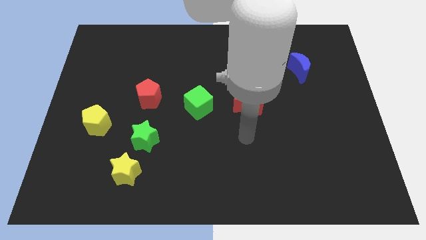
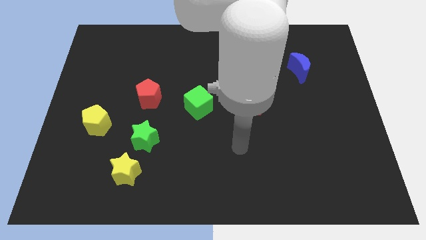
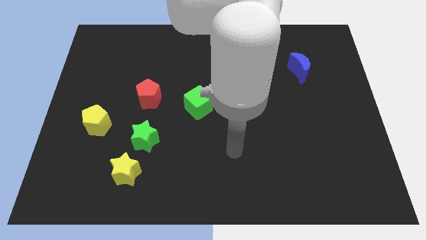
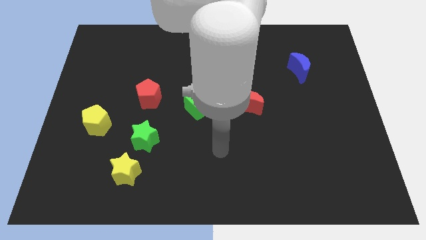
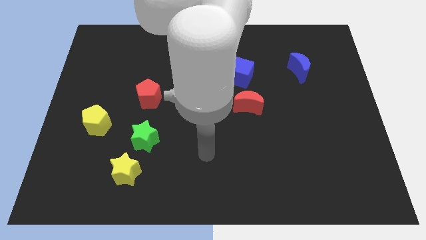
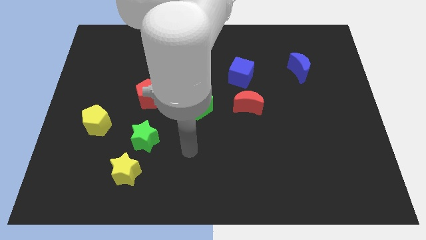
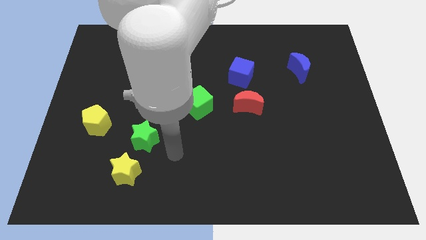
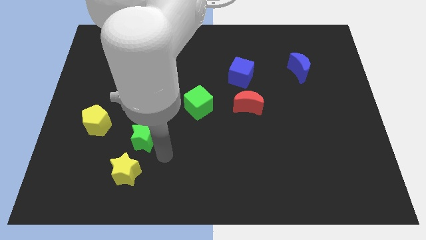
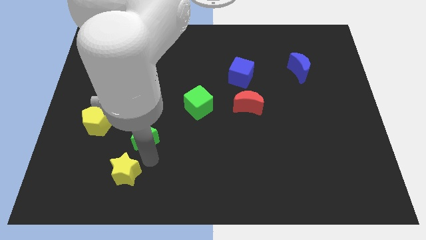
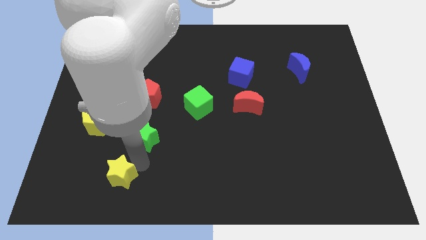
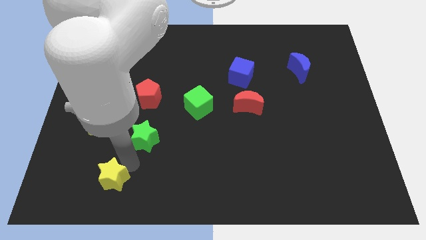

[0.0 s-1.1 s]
separate the green star from the yellow star

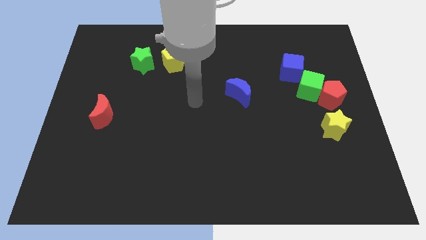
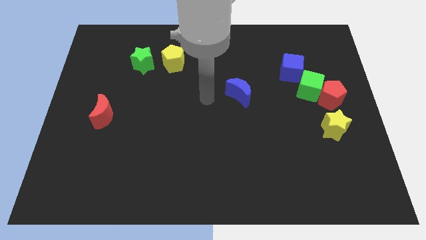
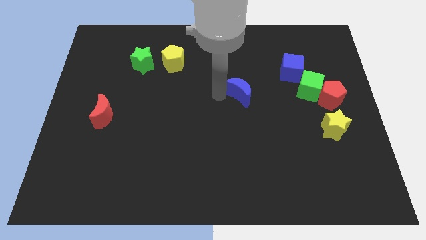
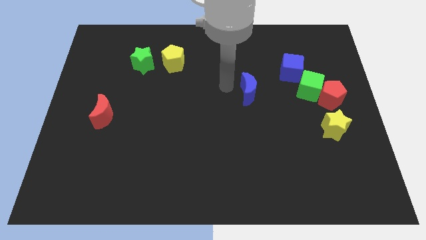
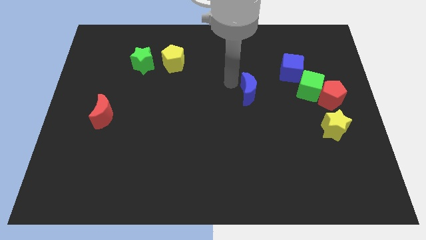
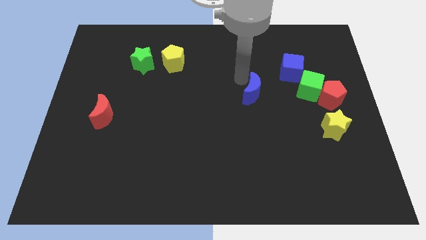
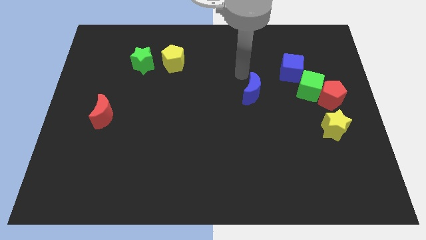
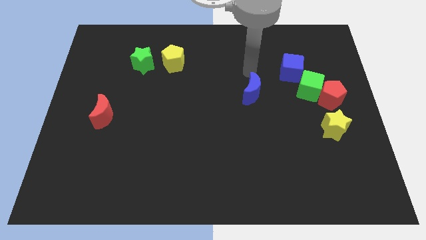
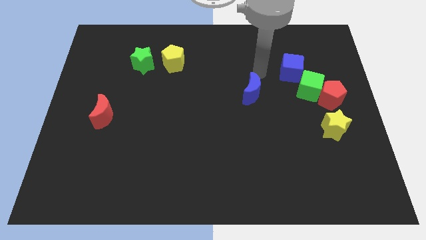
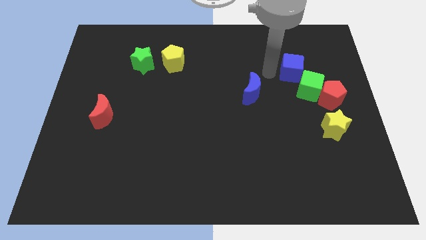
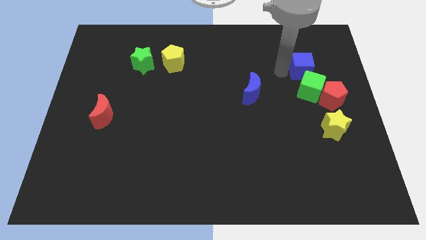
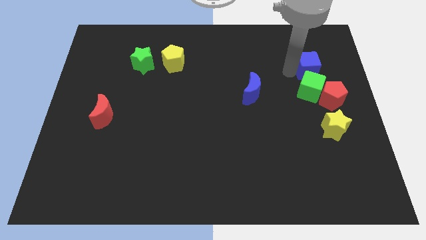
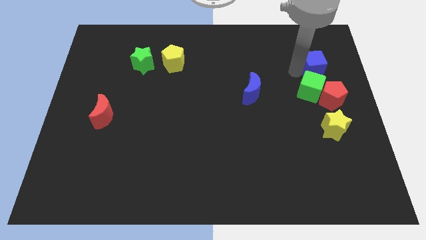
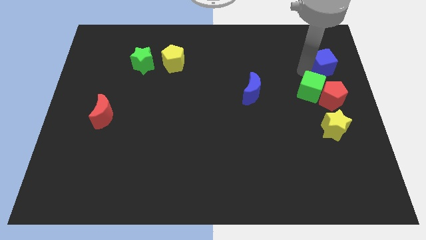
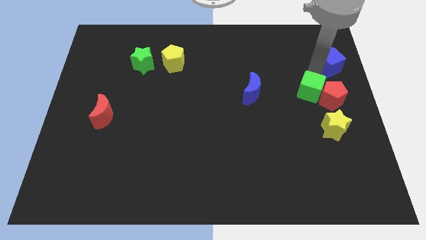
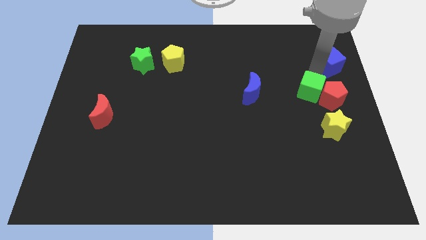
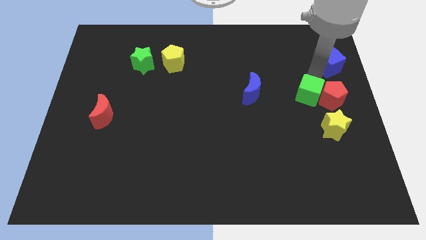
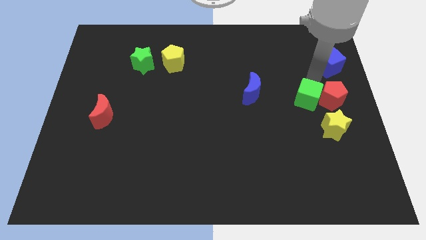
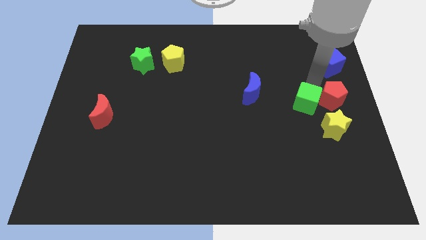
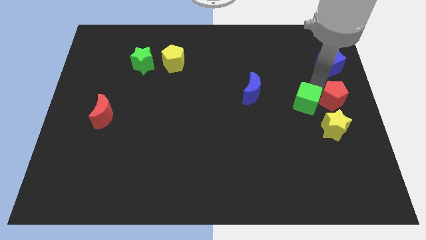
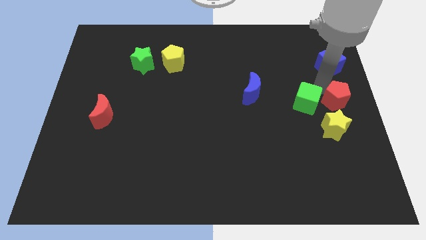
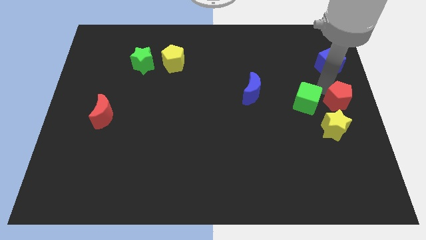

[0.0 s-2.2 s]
move the green cube away from the red pentagon and blue cube

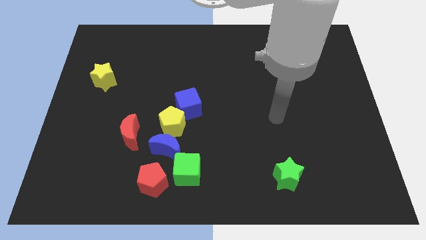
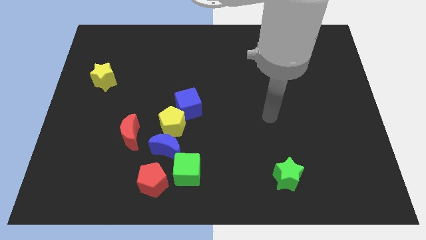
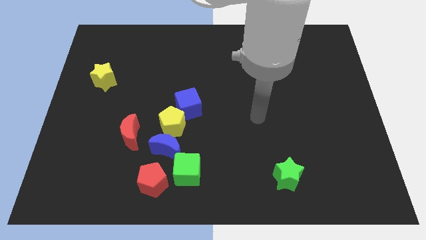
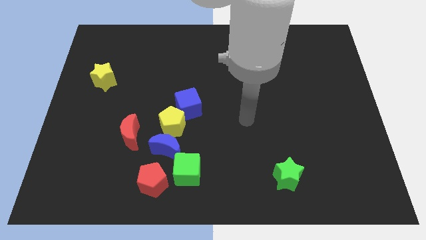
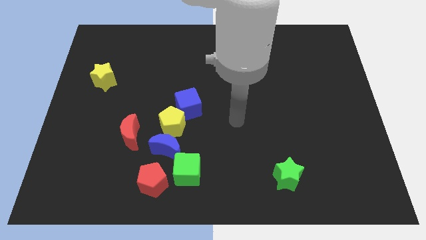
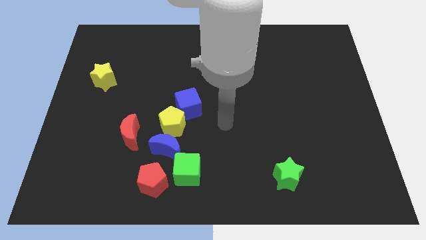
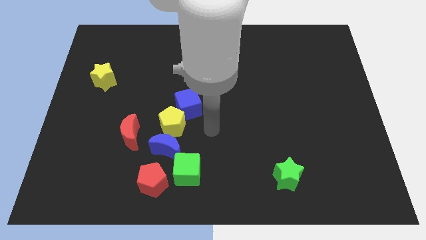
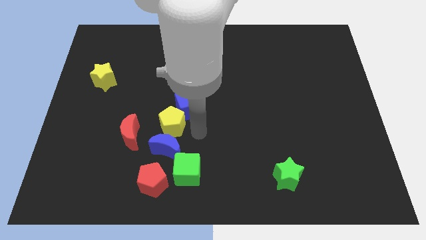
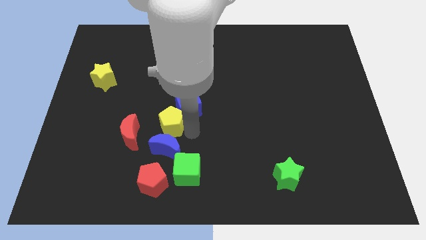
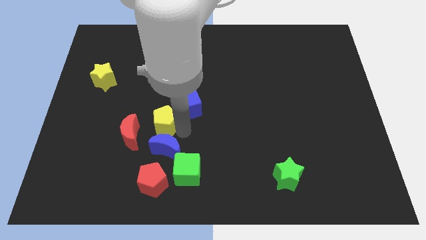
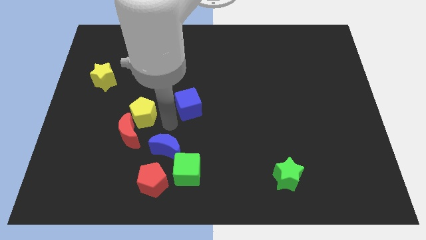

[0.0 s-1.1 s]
separate the blue cube from the yellow pentagon

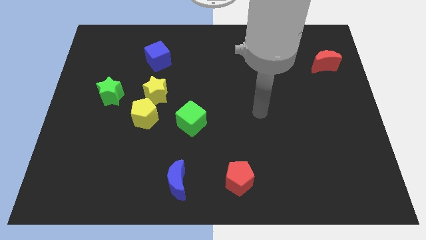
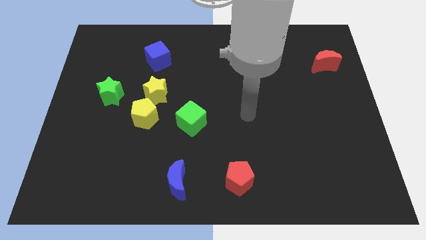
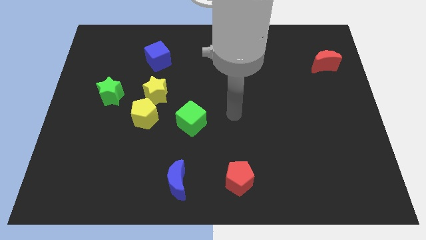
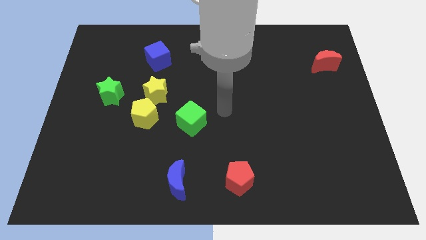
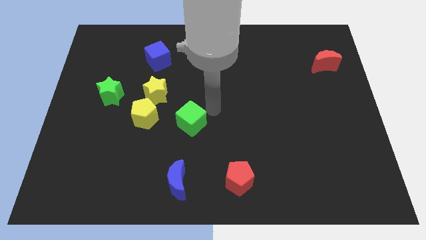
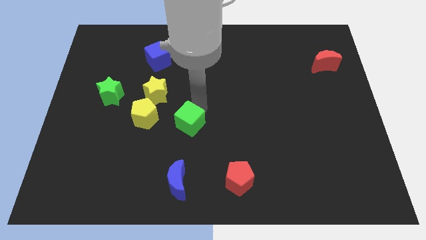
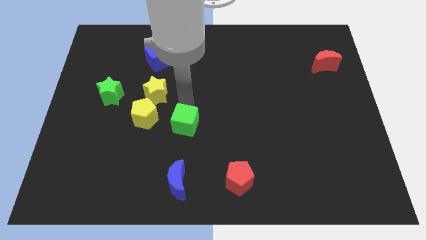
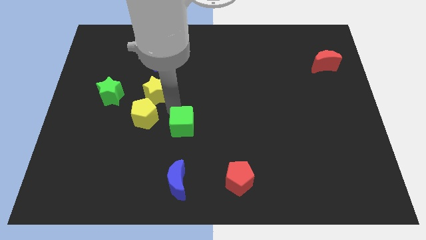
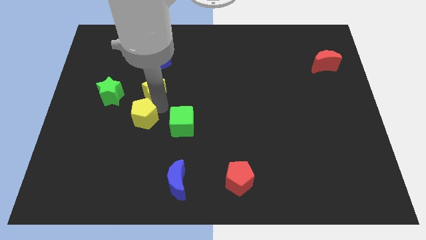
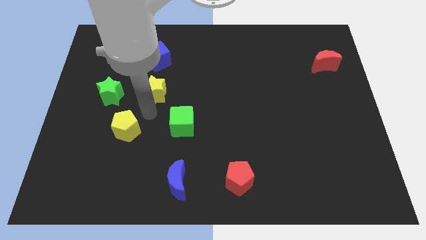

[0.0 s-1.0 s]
move the yellow star away from the yellow pentagon

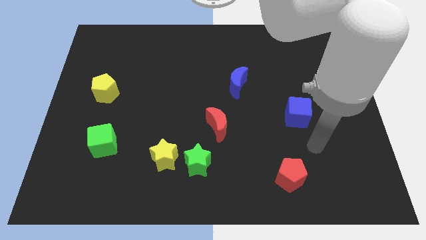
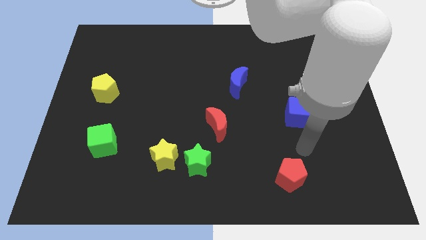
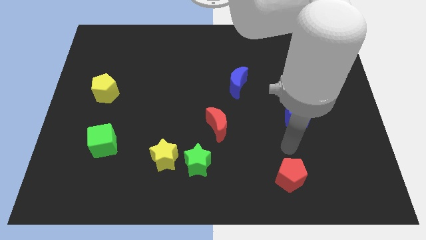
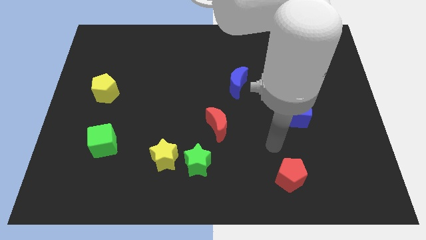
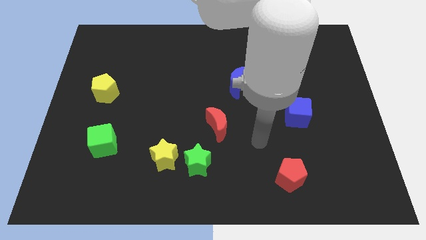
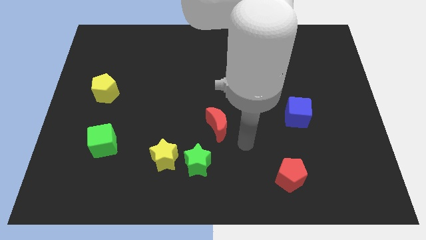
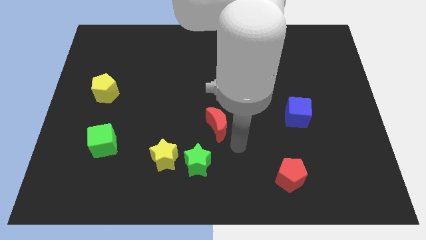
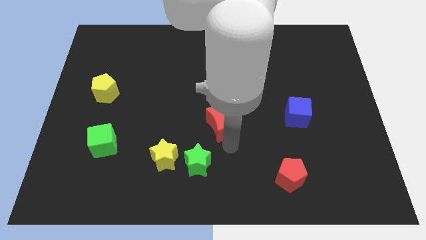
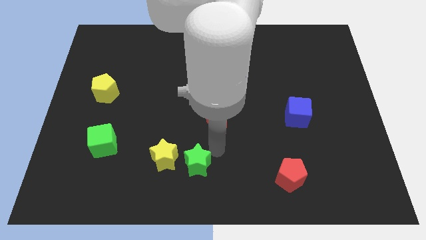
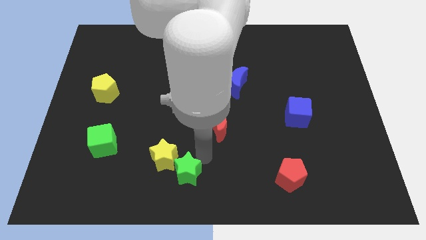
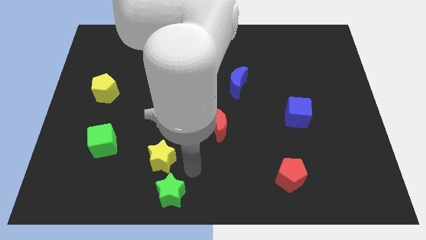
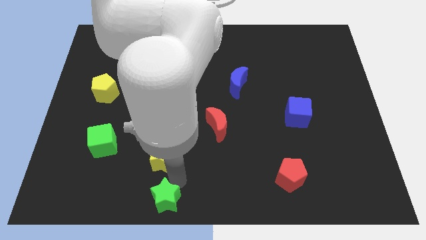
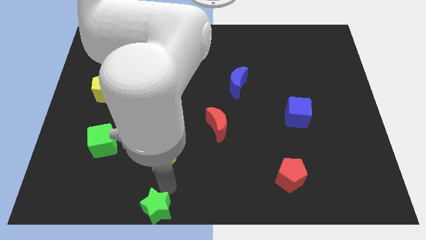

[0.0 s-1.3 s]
move the yellow star away from the green star

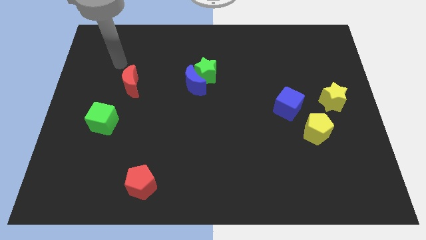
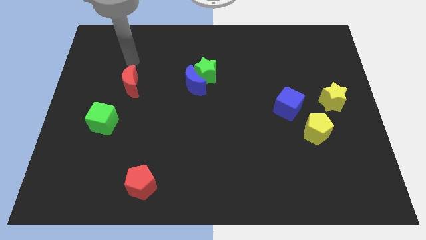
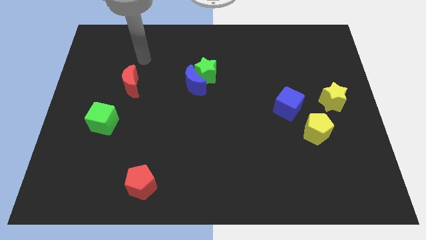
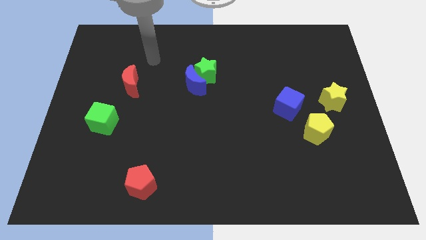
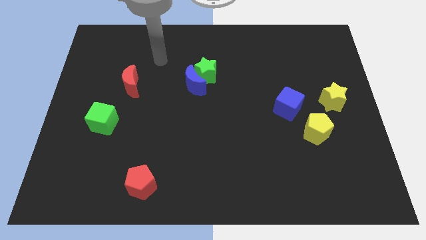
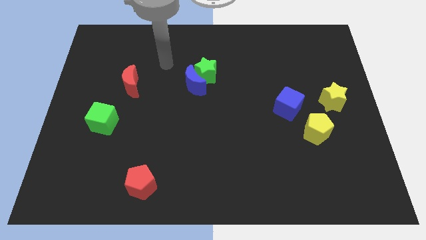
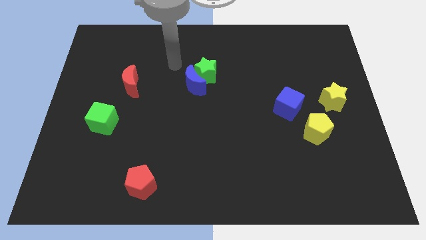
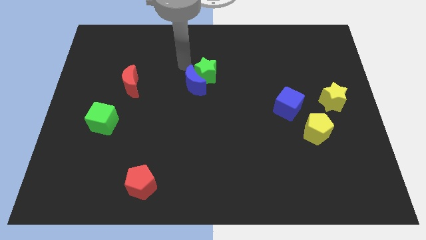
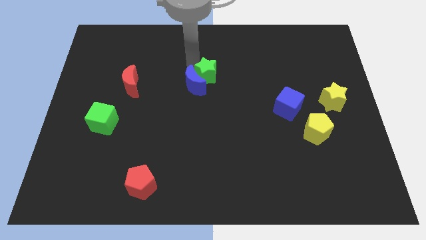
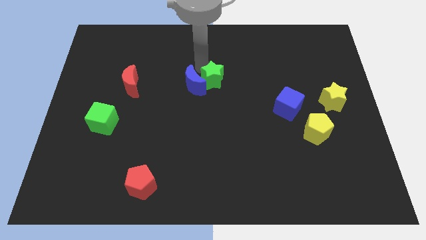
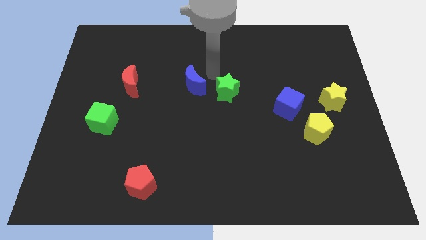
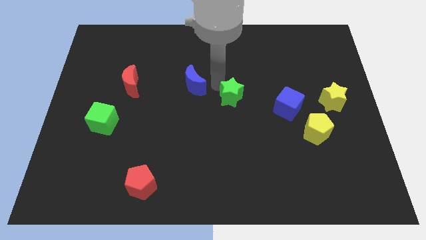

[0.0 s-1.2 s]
separate the blue moon from the green star

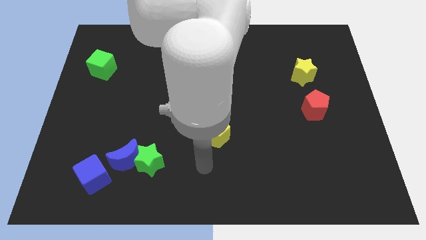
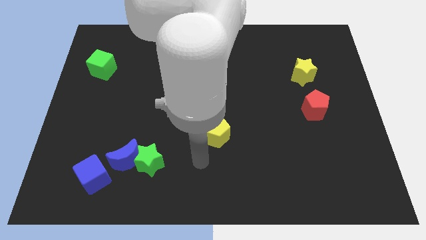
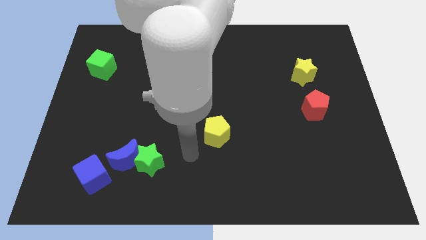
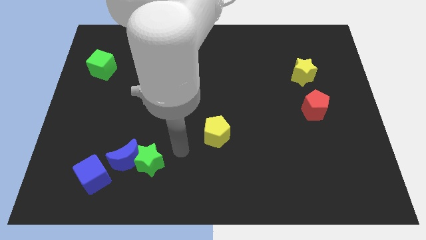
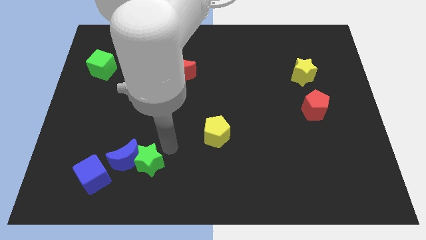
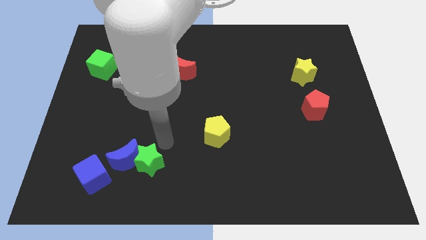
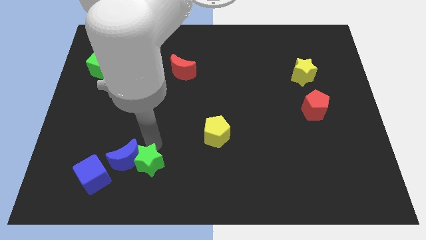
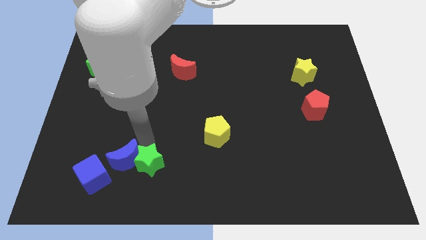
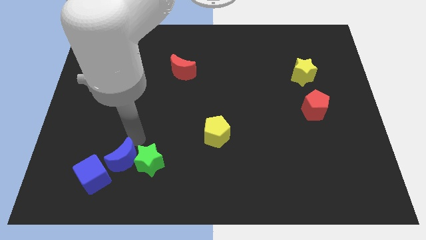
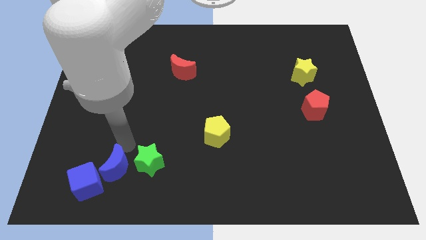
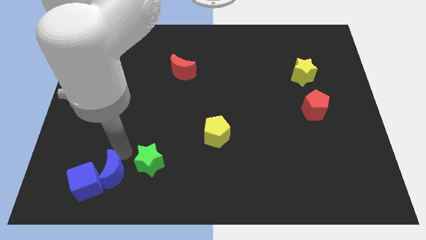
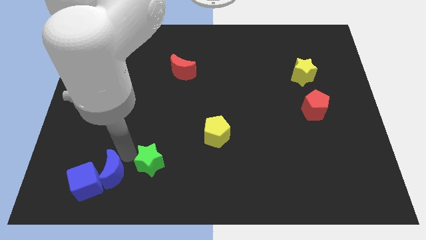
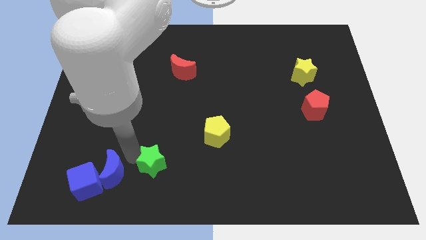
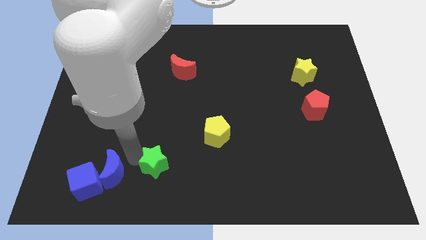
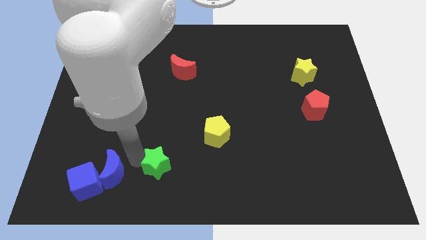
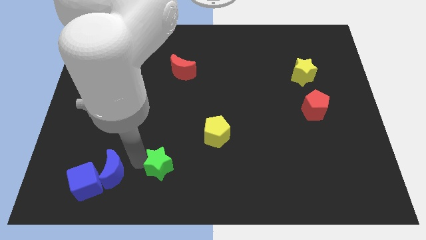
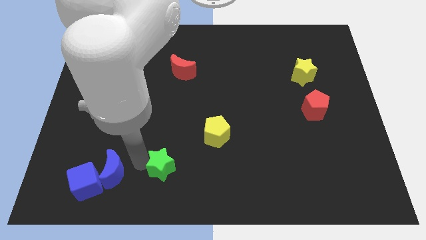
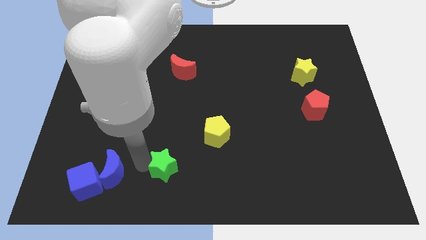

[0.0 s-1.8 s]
pull the green star apart from the blue moon
